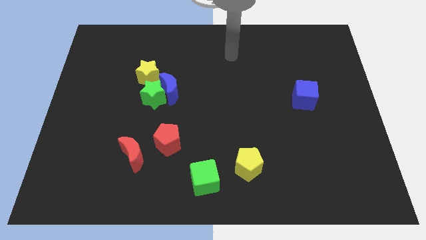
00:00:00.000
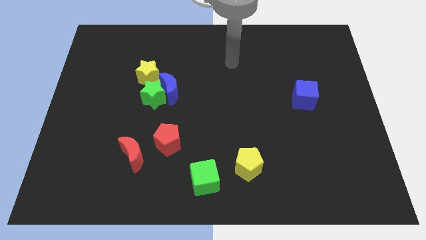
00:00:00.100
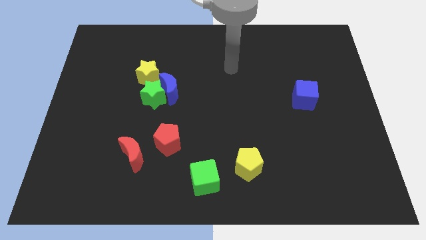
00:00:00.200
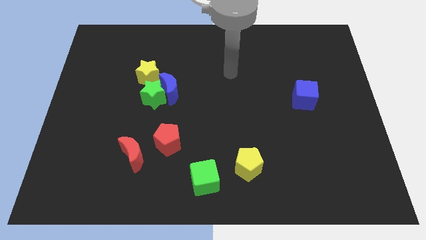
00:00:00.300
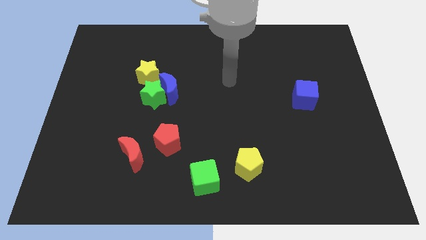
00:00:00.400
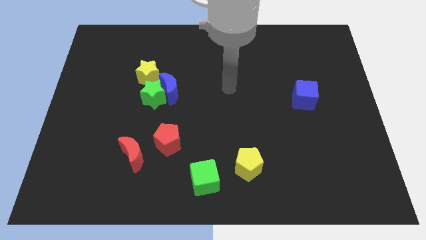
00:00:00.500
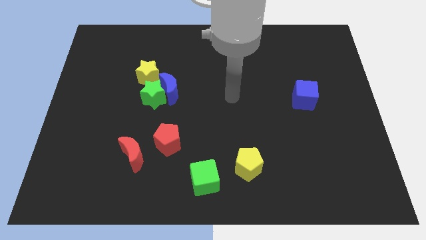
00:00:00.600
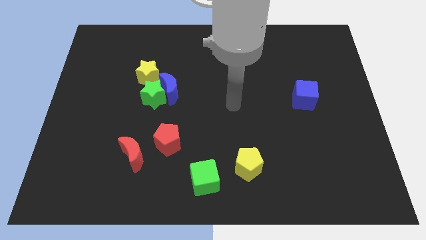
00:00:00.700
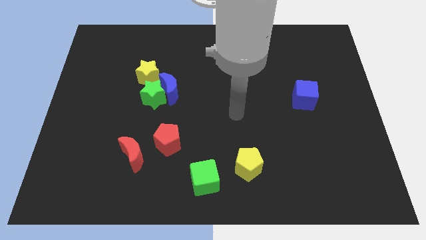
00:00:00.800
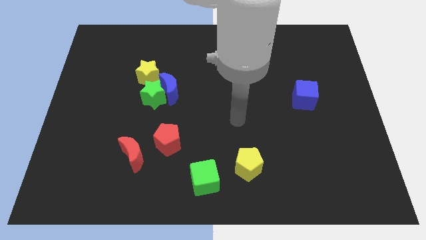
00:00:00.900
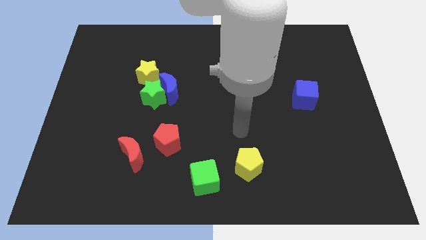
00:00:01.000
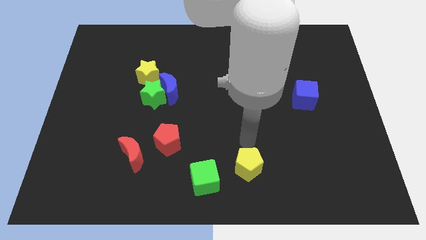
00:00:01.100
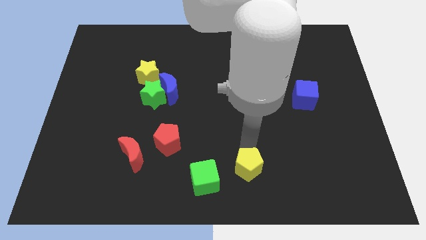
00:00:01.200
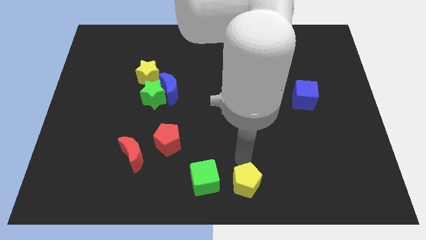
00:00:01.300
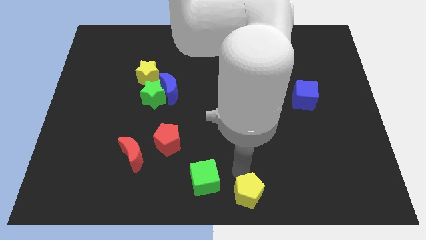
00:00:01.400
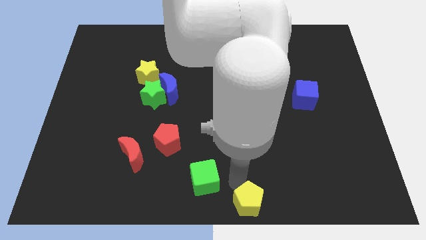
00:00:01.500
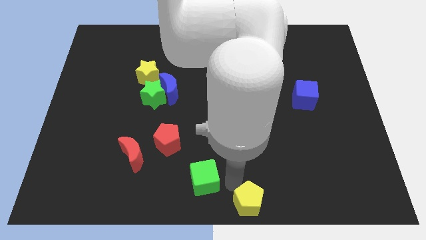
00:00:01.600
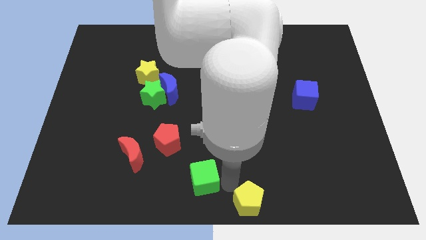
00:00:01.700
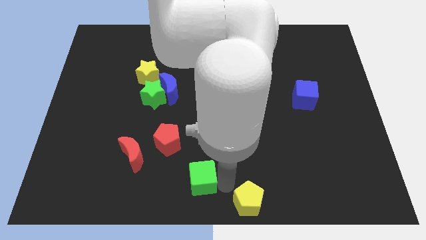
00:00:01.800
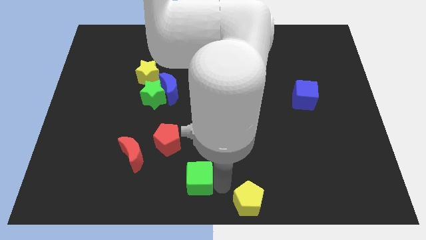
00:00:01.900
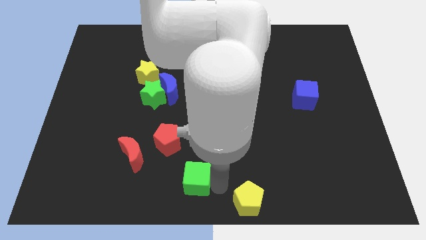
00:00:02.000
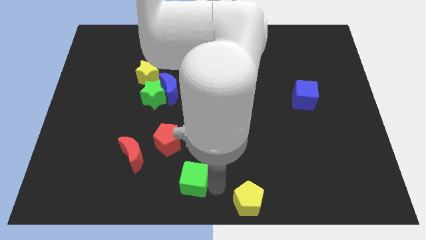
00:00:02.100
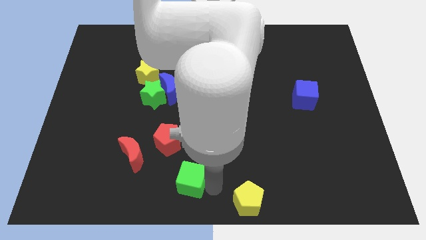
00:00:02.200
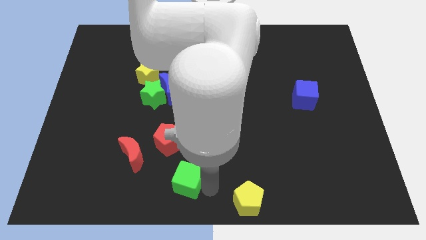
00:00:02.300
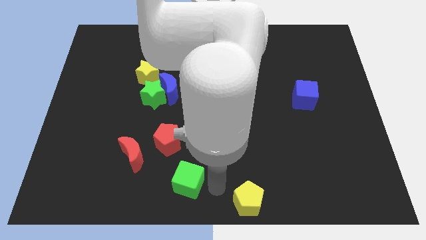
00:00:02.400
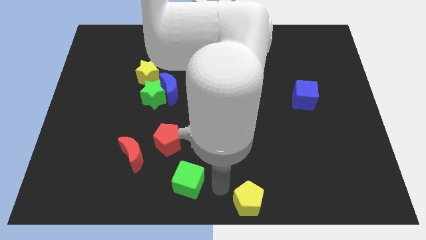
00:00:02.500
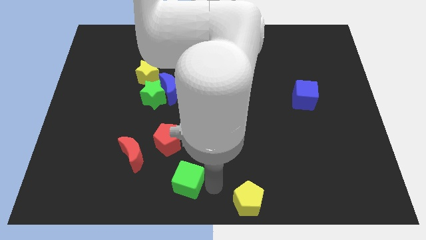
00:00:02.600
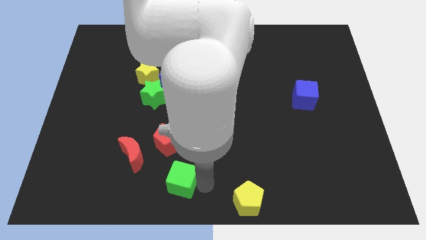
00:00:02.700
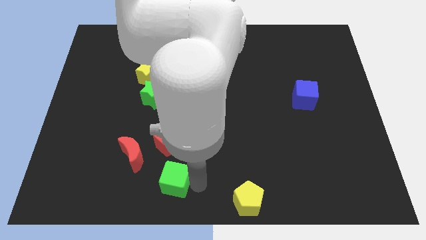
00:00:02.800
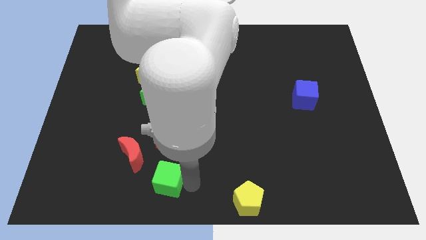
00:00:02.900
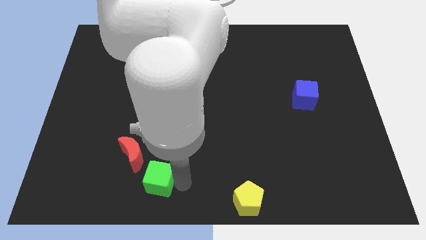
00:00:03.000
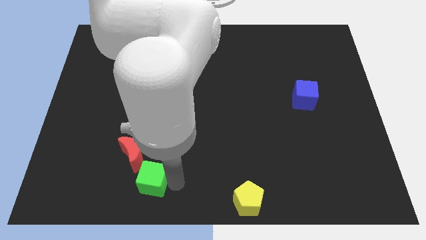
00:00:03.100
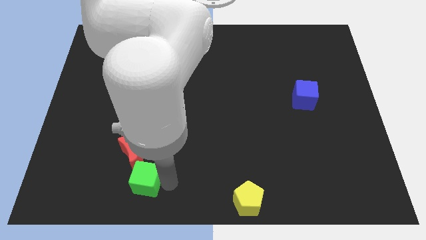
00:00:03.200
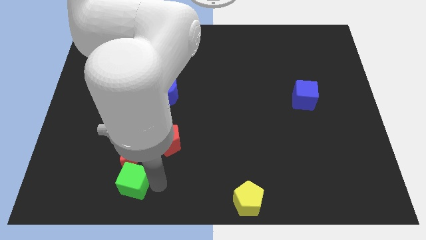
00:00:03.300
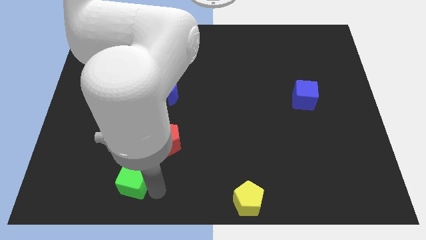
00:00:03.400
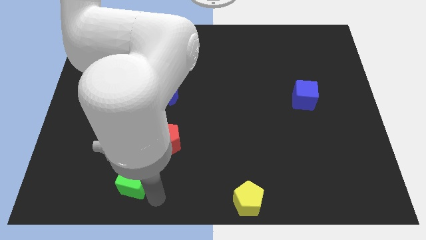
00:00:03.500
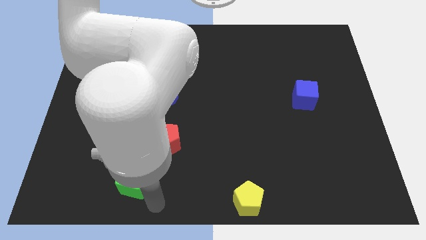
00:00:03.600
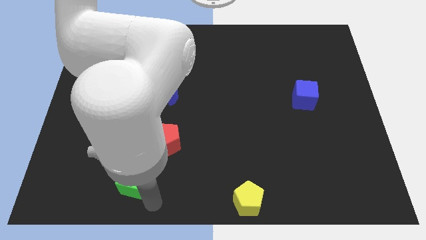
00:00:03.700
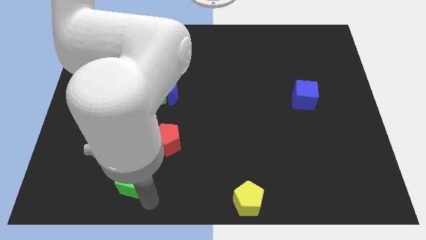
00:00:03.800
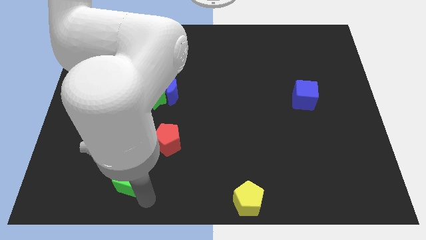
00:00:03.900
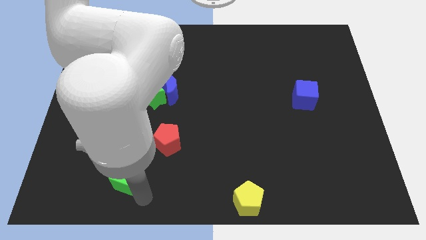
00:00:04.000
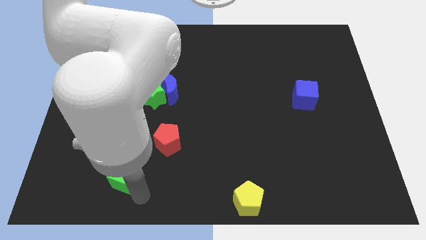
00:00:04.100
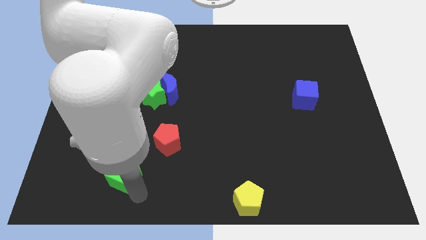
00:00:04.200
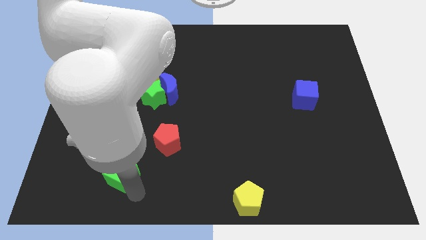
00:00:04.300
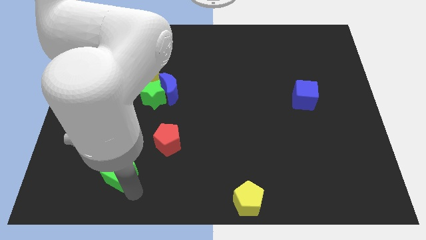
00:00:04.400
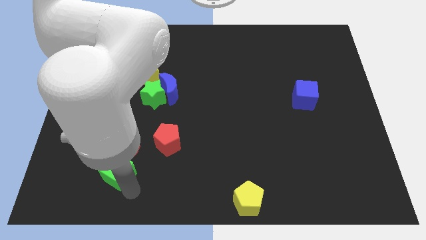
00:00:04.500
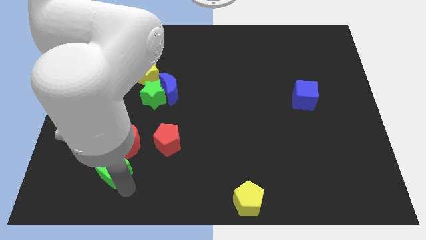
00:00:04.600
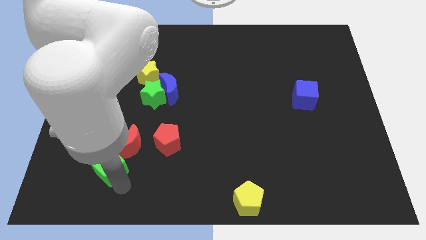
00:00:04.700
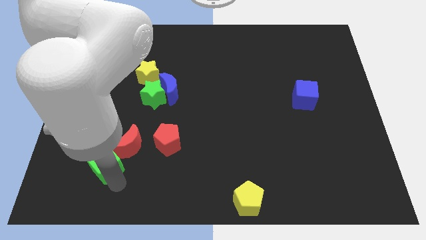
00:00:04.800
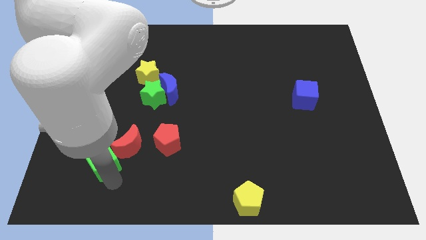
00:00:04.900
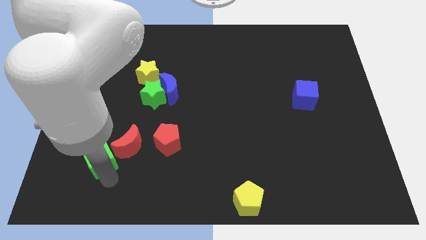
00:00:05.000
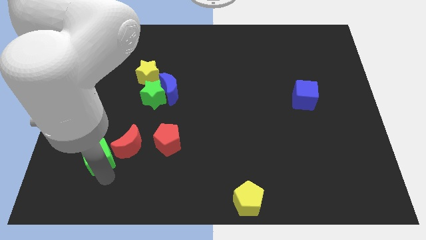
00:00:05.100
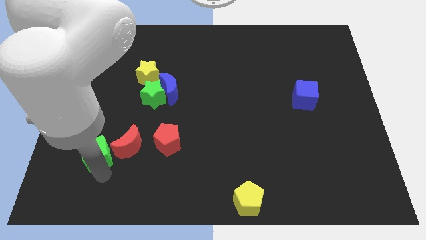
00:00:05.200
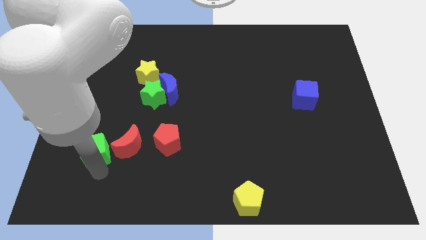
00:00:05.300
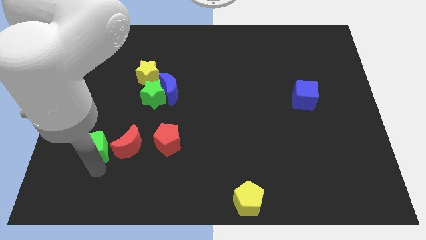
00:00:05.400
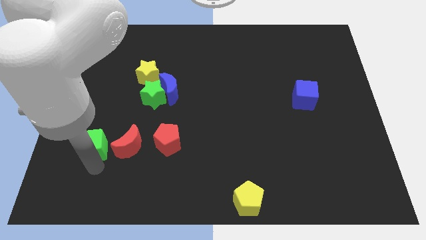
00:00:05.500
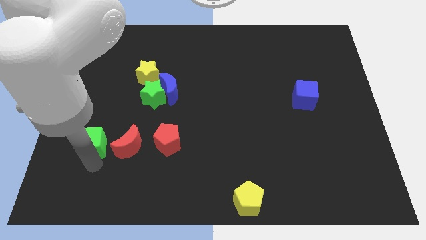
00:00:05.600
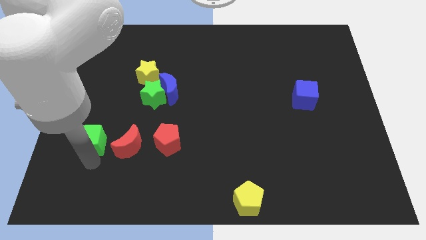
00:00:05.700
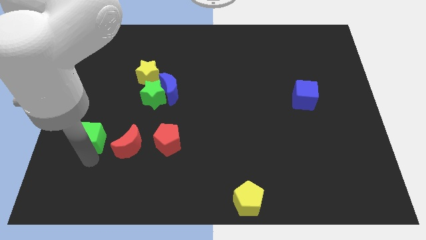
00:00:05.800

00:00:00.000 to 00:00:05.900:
put the green cube to the top left side of the red moon

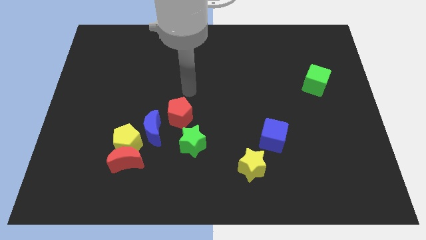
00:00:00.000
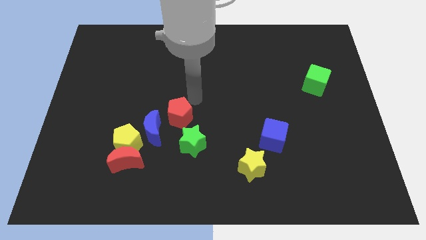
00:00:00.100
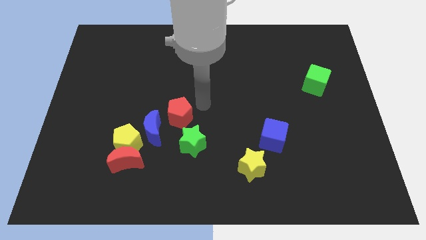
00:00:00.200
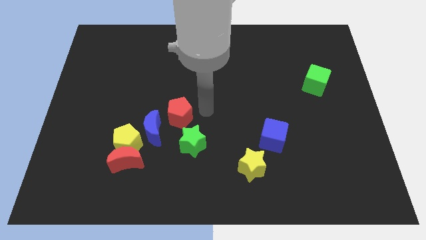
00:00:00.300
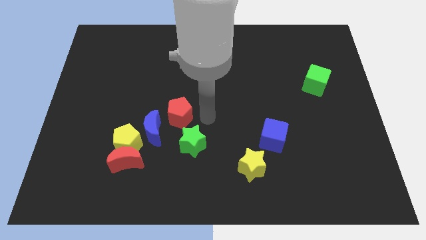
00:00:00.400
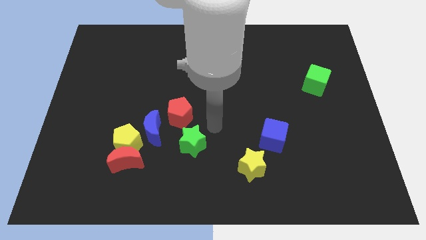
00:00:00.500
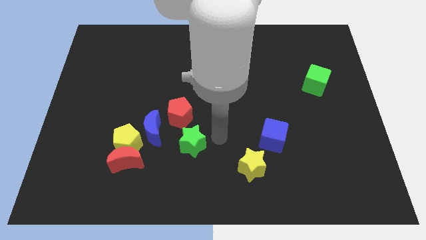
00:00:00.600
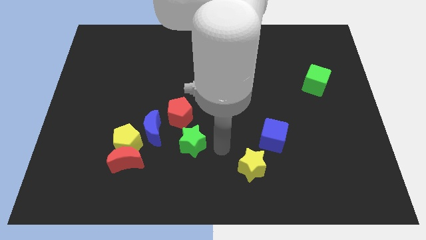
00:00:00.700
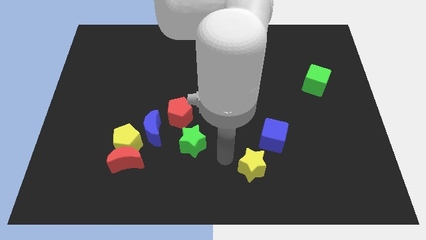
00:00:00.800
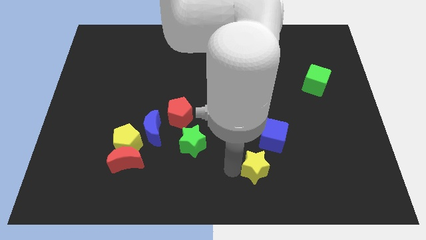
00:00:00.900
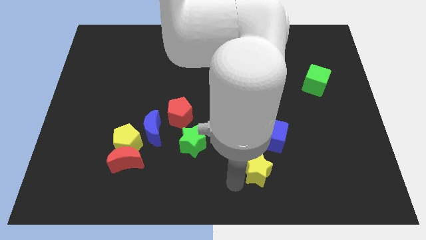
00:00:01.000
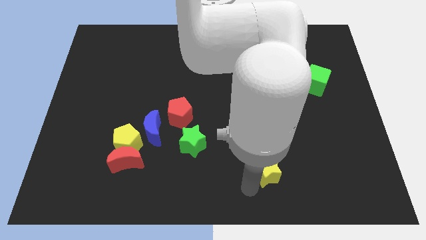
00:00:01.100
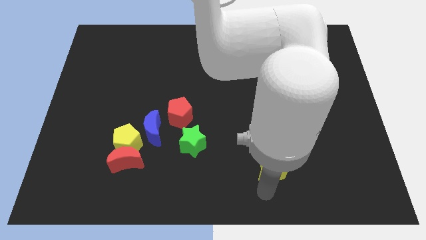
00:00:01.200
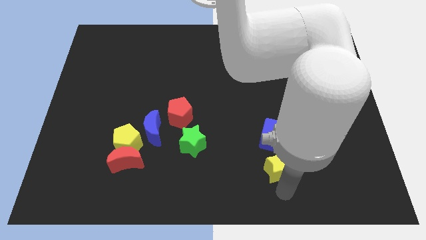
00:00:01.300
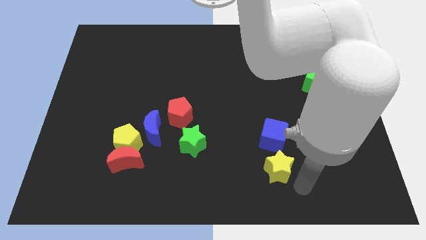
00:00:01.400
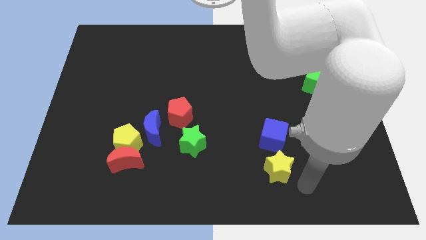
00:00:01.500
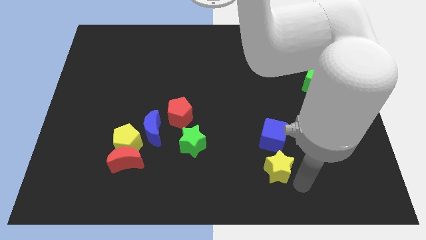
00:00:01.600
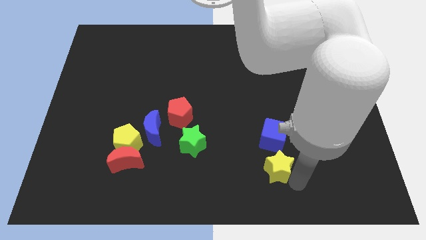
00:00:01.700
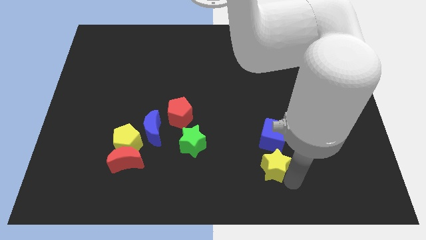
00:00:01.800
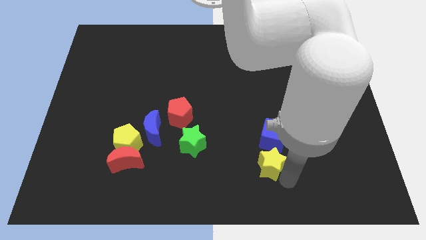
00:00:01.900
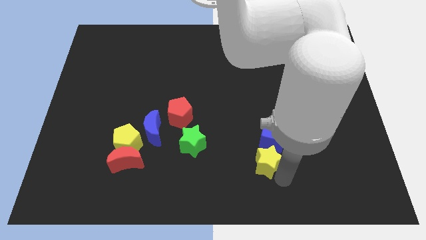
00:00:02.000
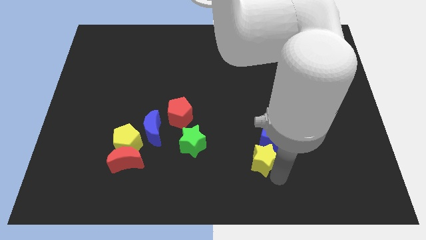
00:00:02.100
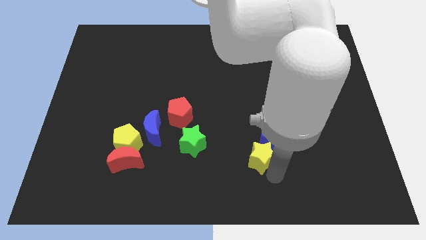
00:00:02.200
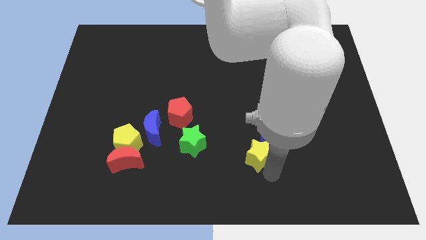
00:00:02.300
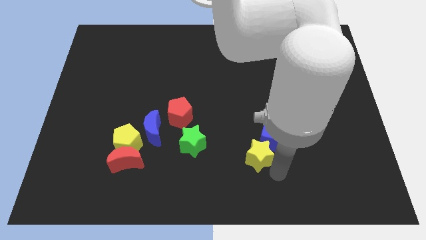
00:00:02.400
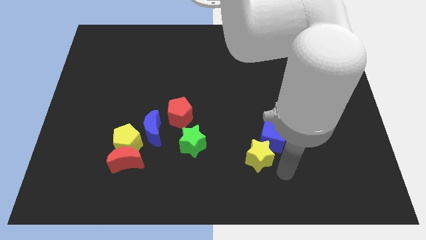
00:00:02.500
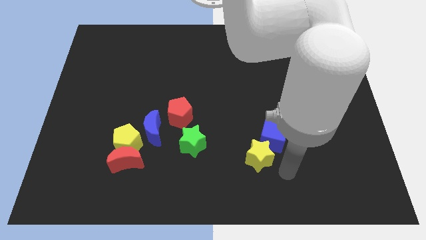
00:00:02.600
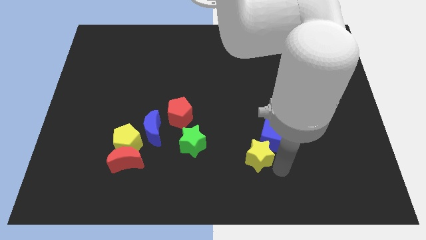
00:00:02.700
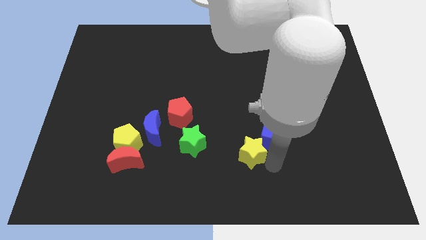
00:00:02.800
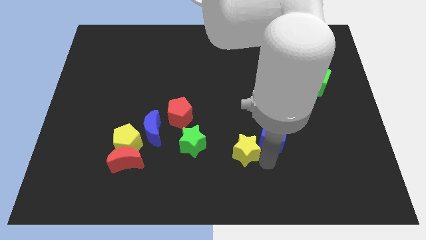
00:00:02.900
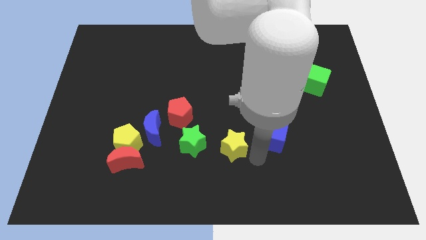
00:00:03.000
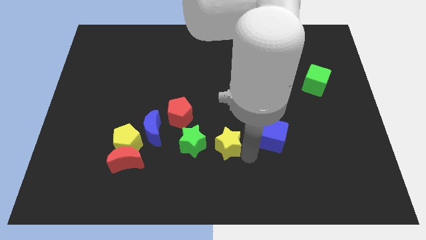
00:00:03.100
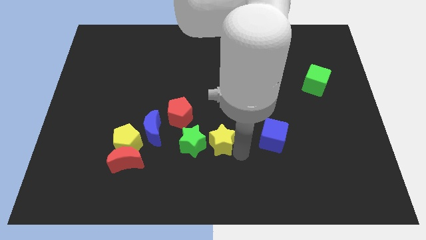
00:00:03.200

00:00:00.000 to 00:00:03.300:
slide the yellow star to the top right of the green star
